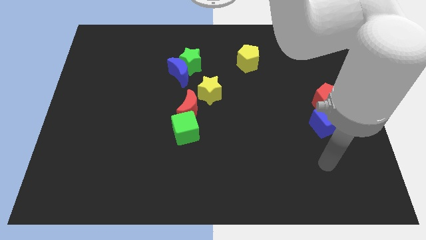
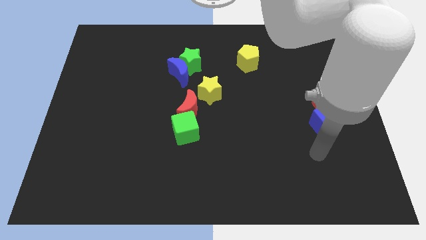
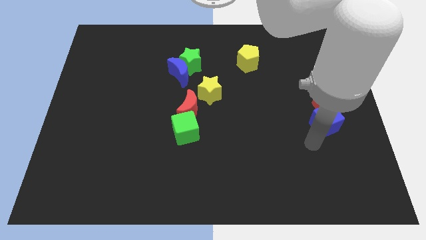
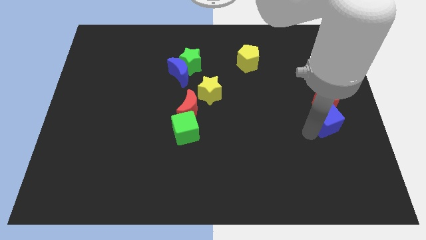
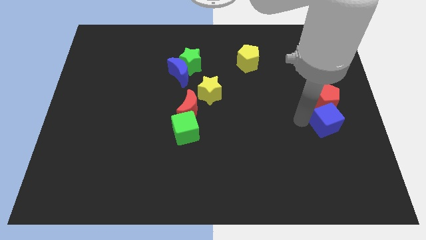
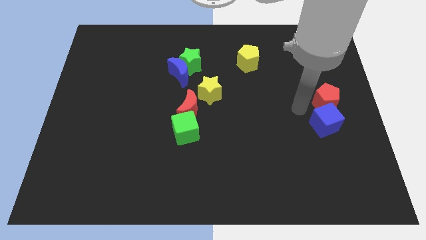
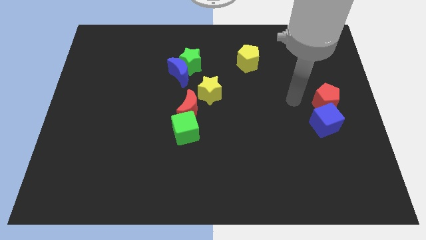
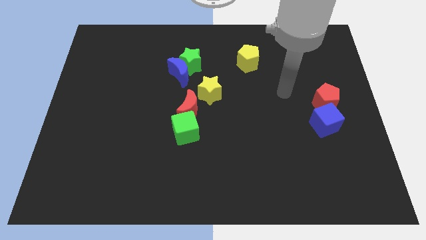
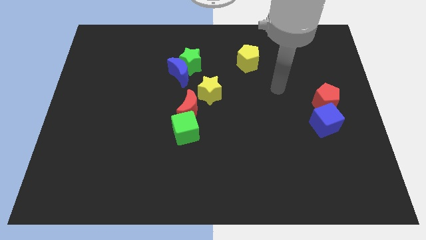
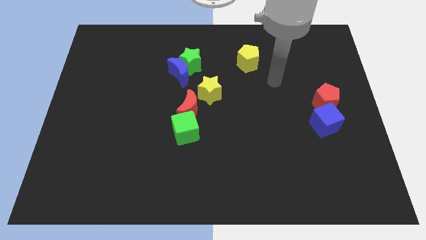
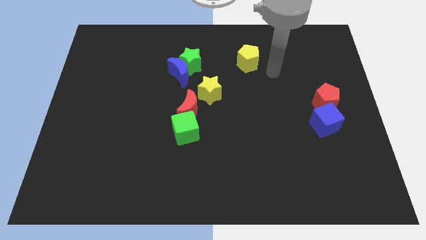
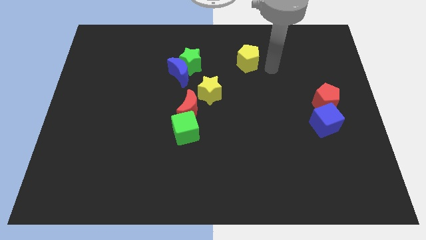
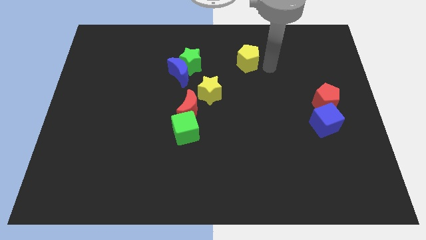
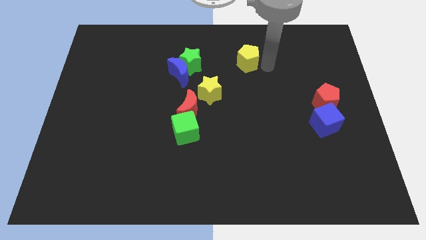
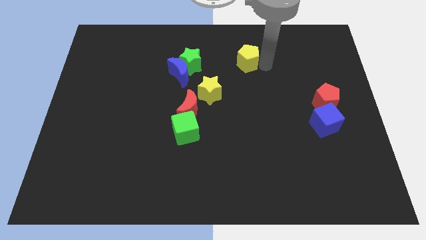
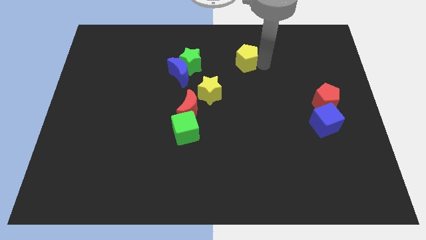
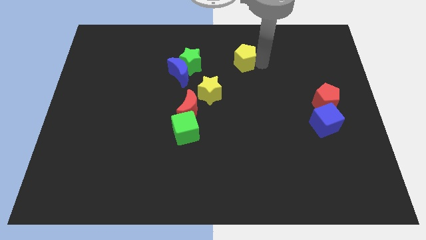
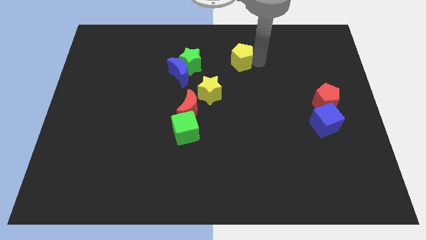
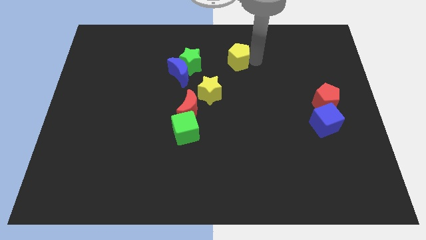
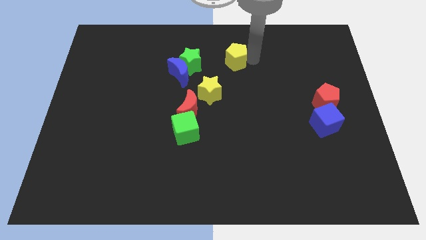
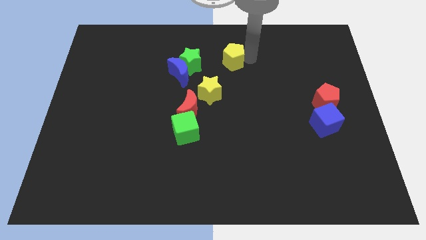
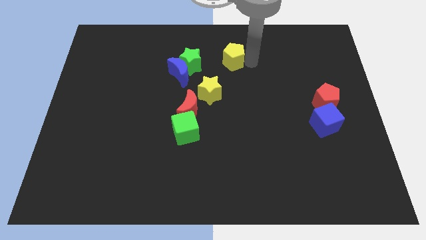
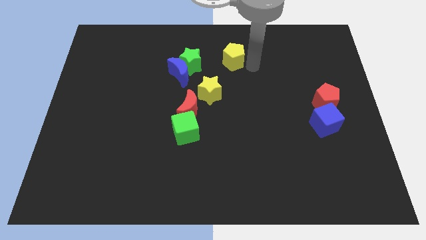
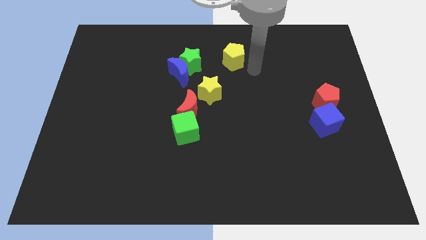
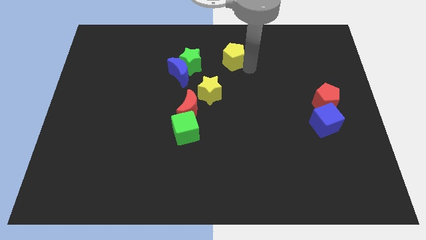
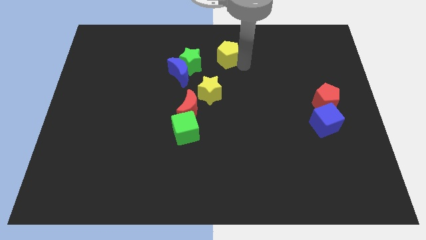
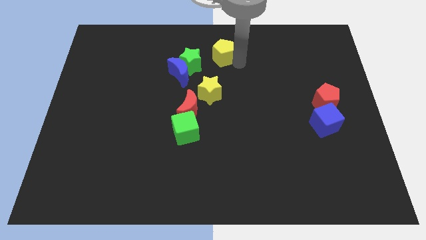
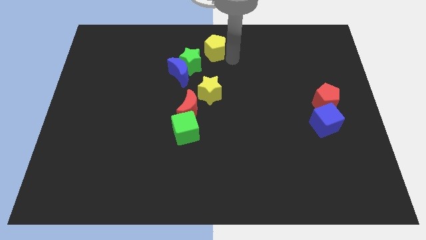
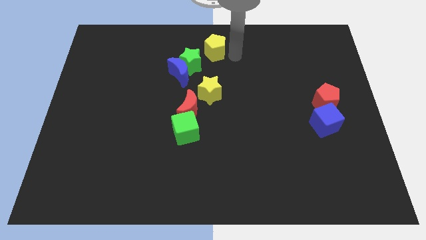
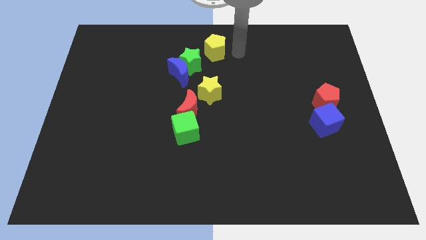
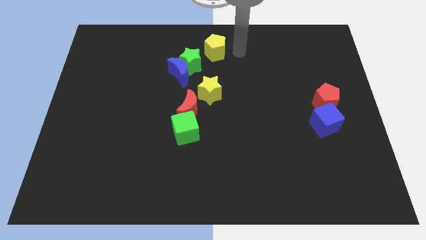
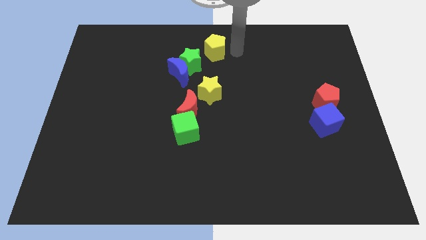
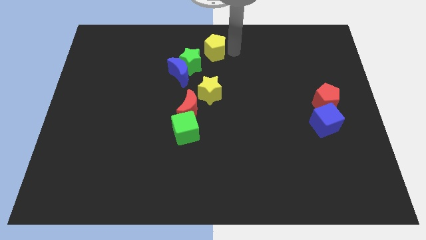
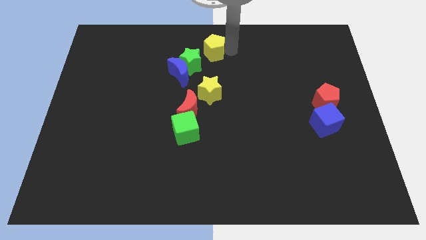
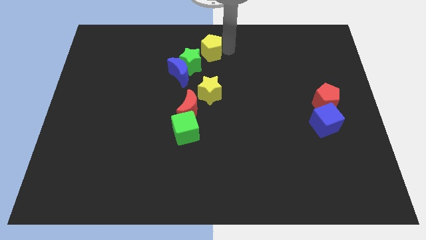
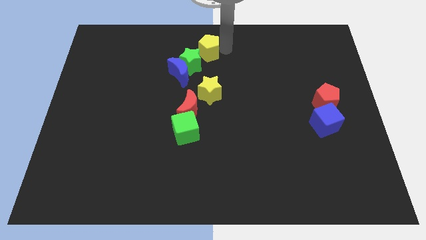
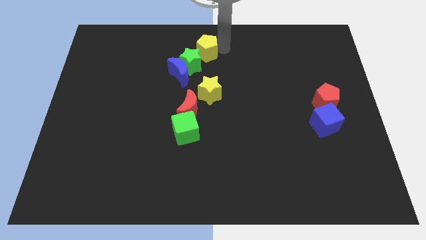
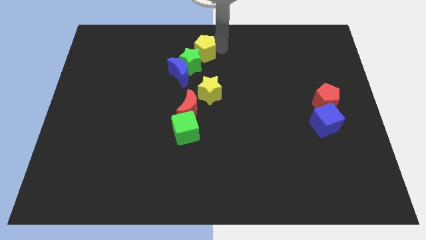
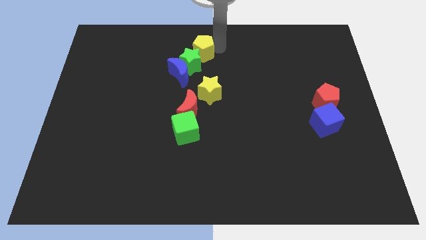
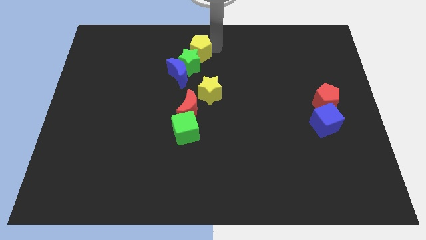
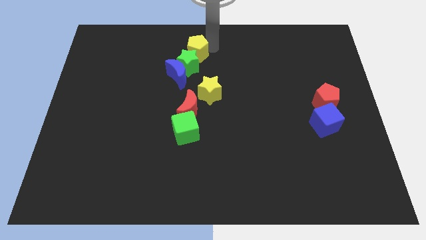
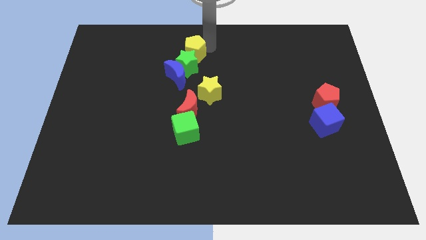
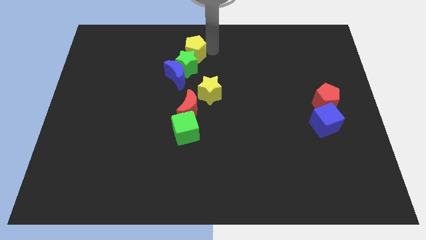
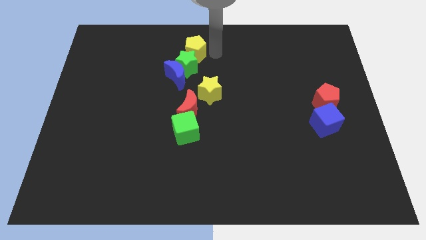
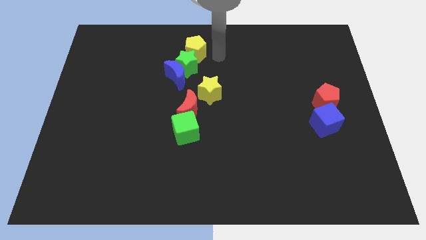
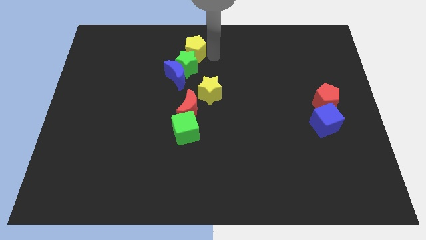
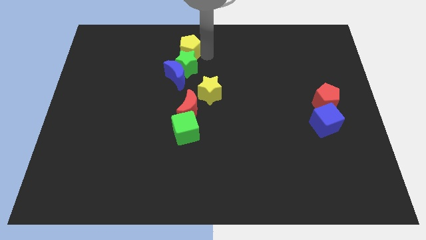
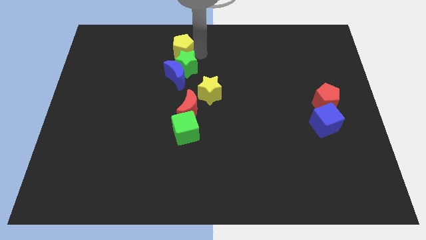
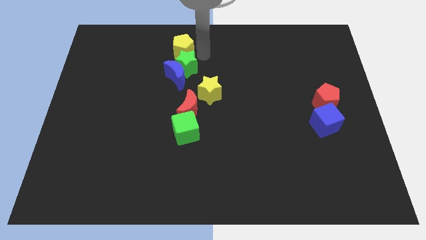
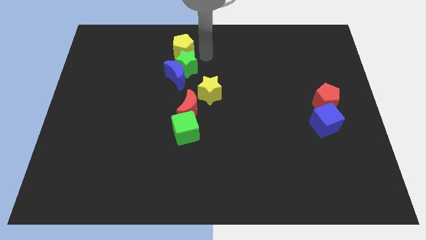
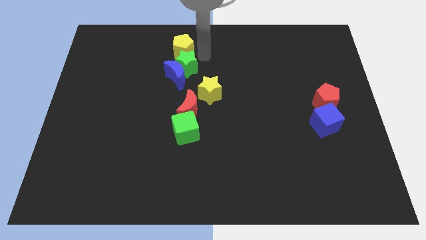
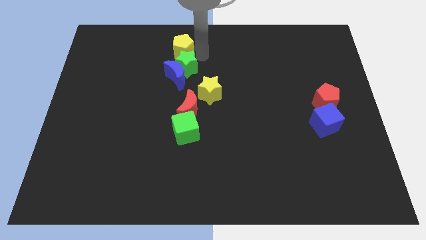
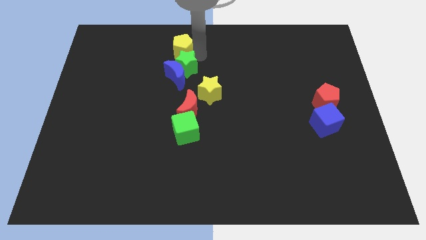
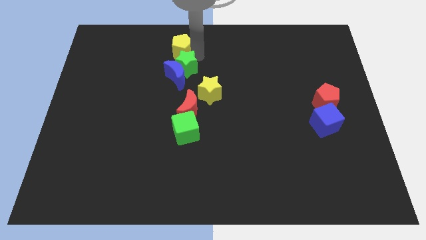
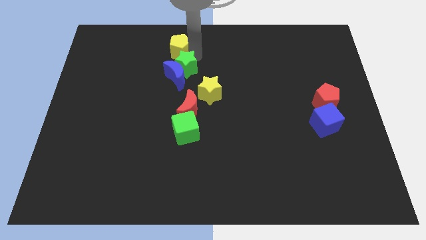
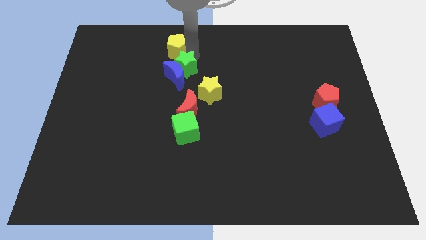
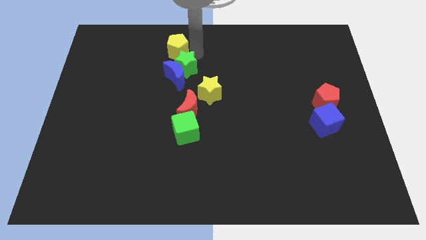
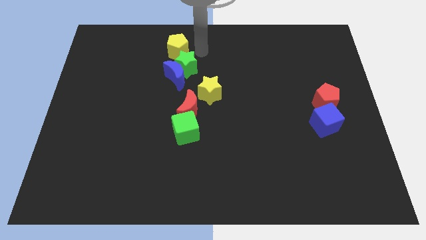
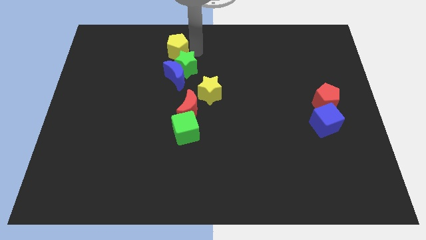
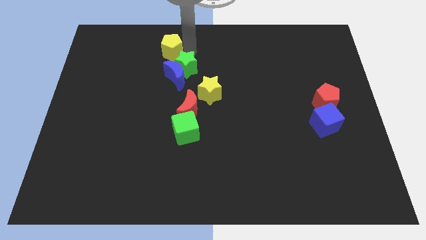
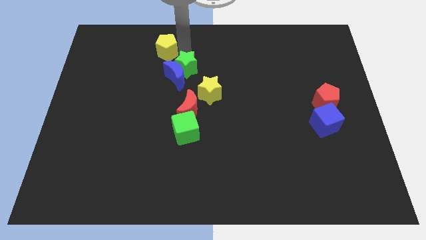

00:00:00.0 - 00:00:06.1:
push the yellow pentagon left

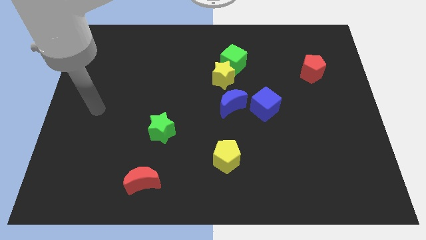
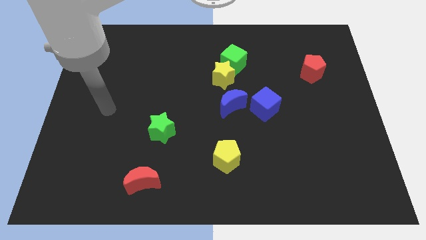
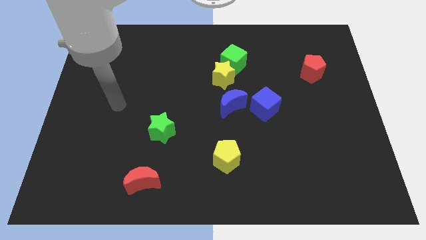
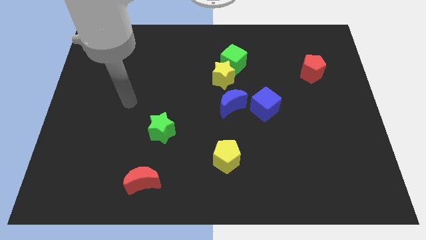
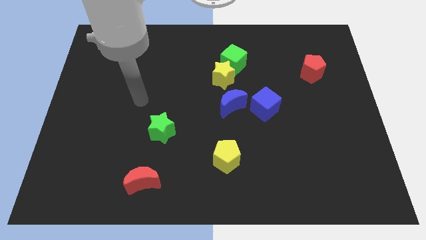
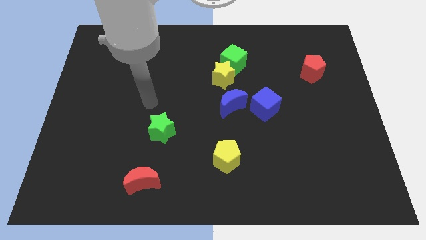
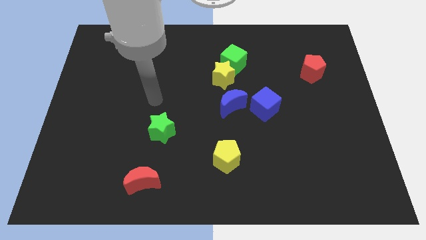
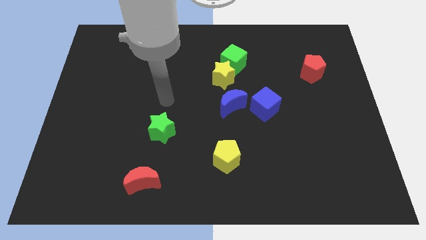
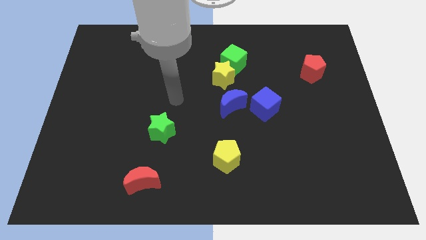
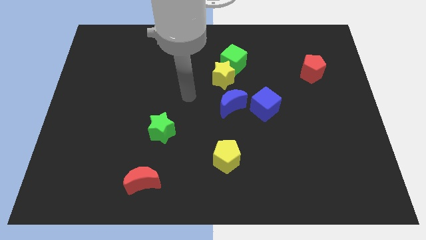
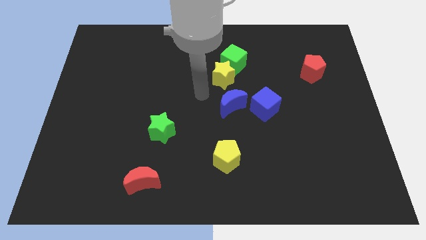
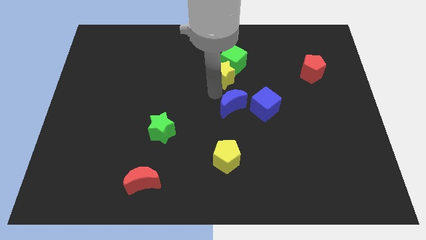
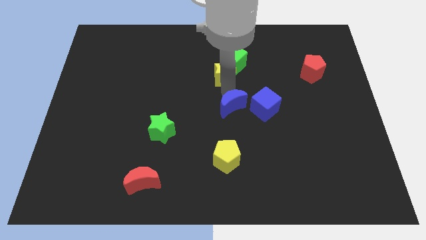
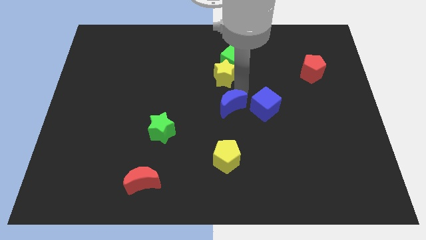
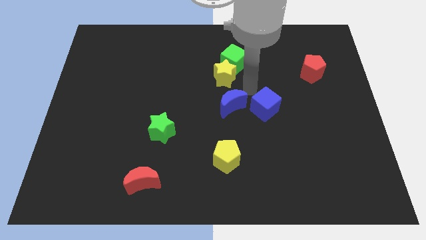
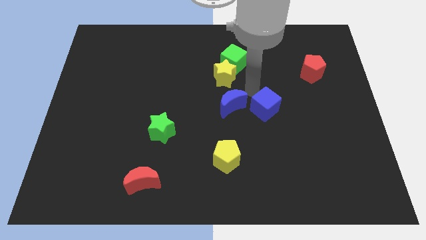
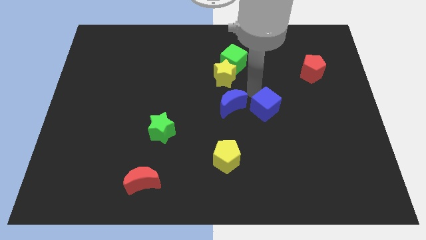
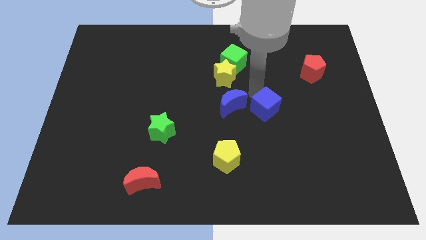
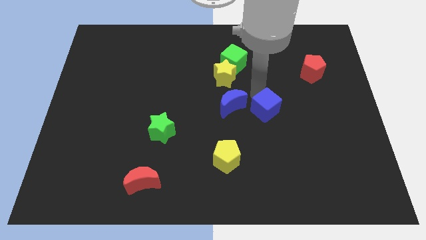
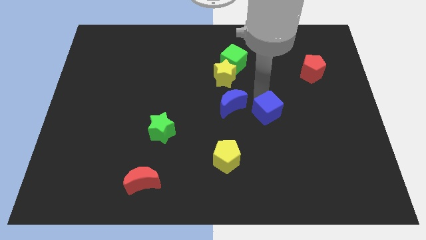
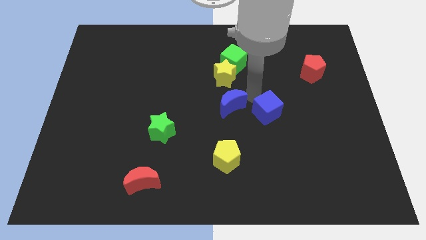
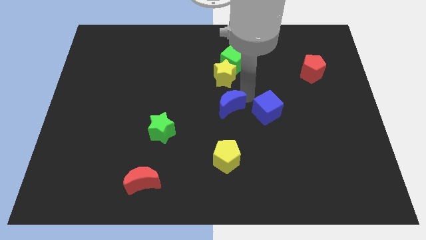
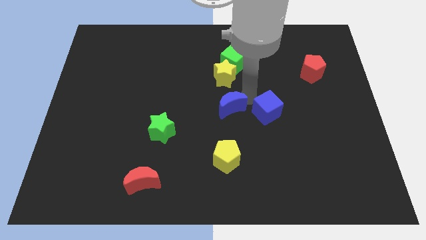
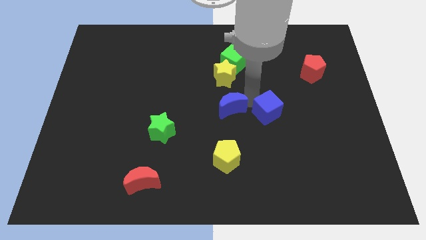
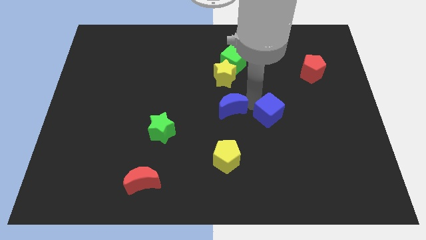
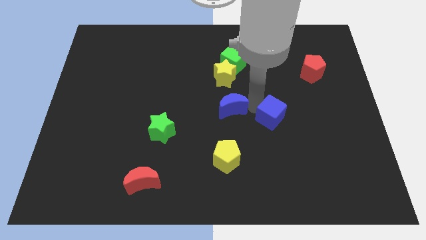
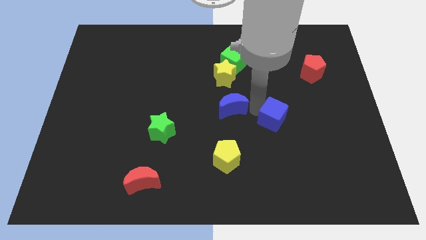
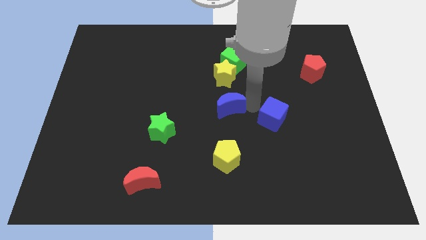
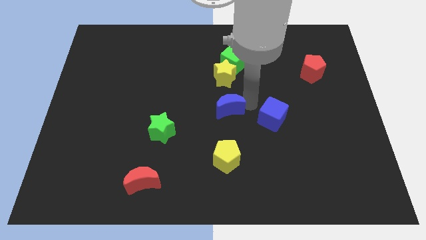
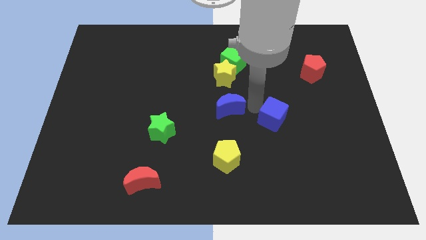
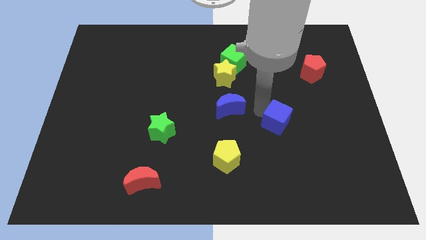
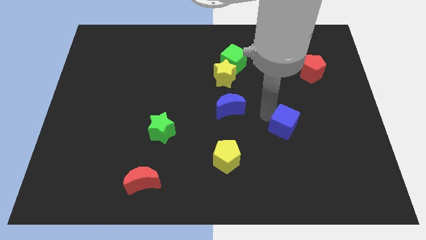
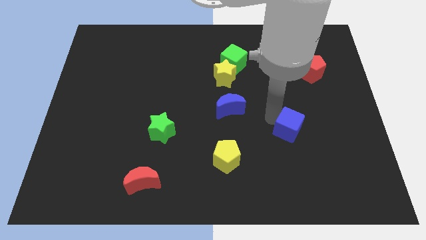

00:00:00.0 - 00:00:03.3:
slightly move the blue cube down and to the right diagonally
